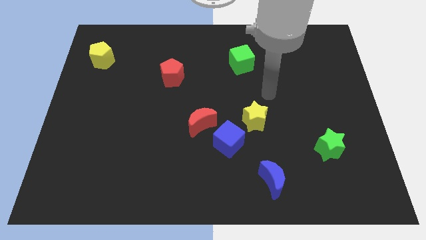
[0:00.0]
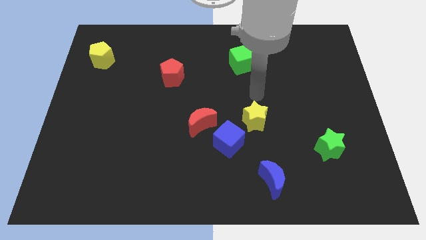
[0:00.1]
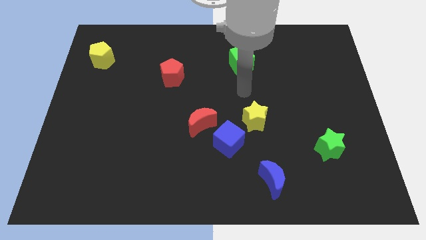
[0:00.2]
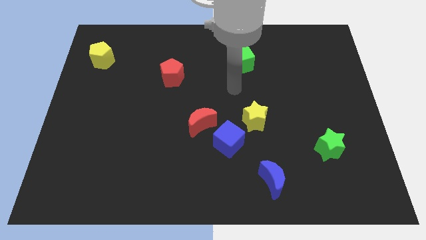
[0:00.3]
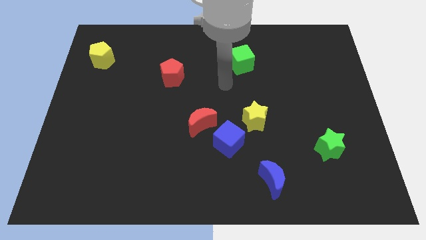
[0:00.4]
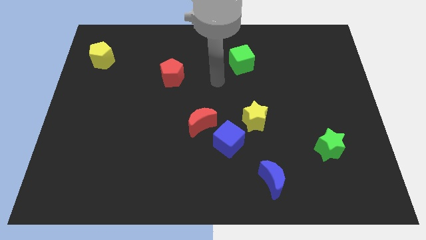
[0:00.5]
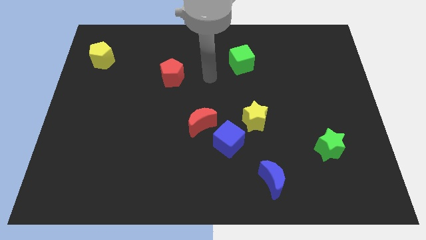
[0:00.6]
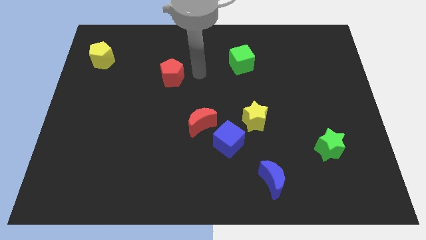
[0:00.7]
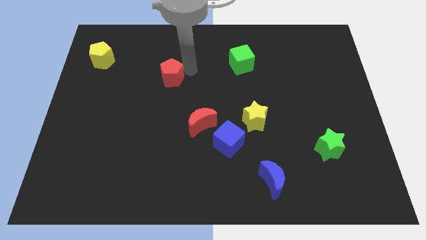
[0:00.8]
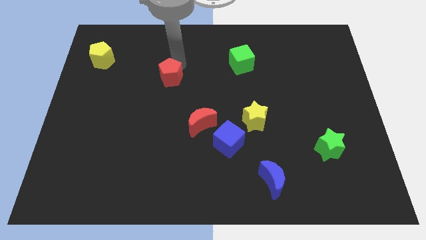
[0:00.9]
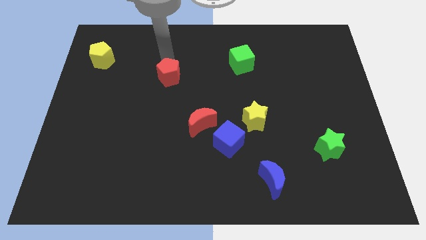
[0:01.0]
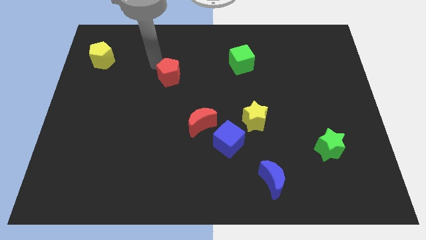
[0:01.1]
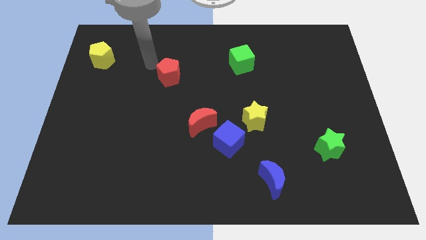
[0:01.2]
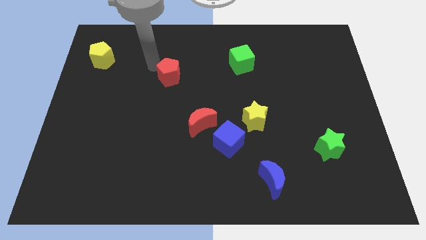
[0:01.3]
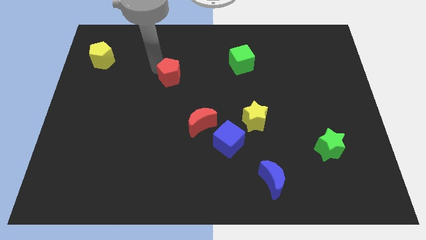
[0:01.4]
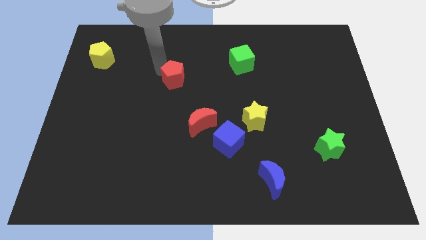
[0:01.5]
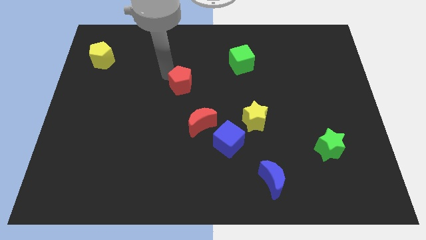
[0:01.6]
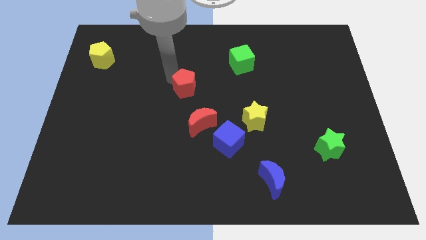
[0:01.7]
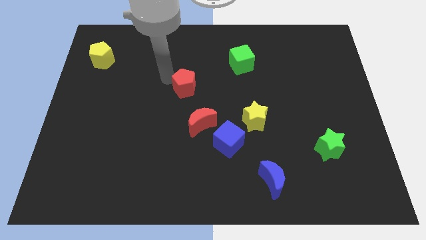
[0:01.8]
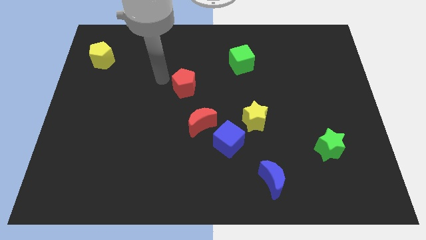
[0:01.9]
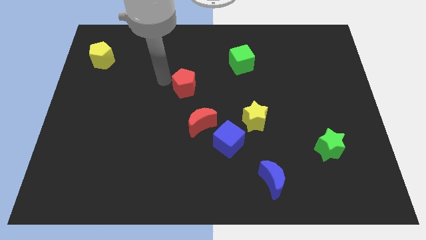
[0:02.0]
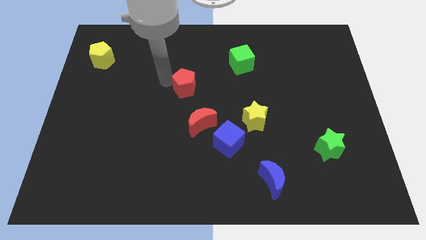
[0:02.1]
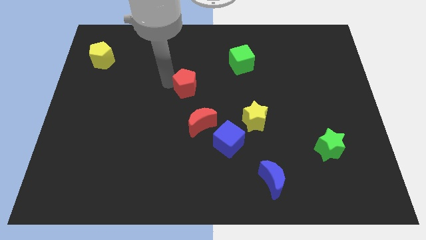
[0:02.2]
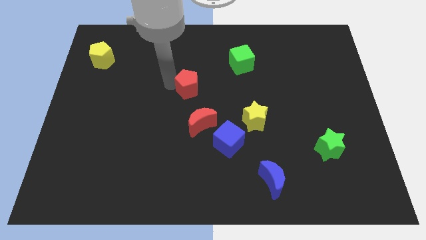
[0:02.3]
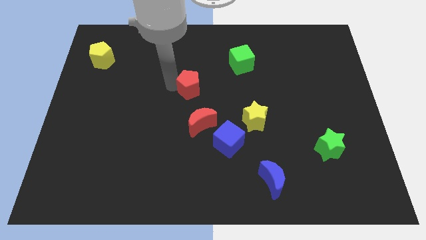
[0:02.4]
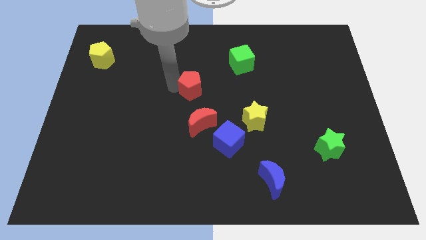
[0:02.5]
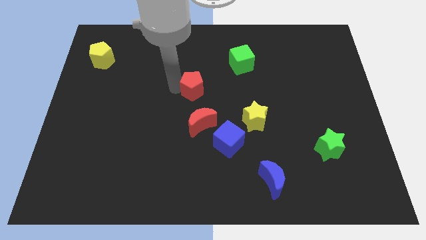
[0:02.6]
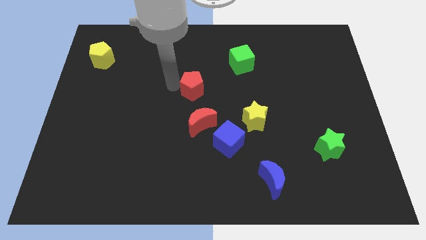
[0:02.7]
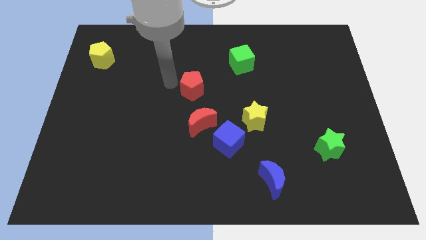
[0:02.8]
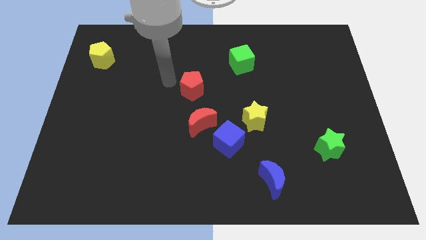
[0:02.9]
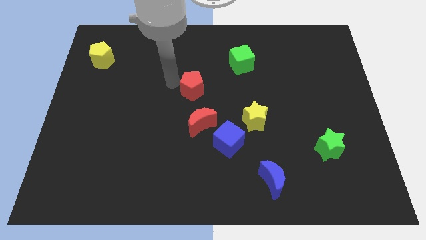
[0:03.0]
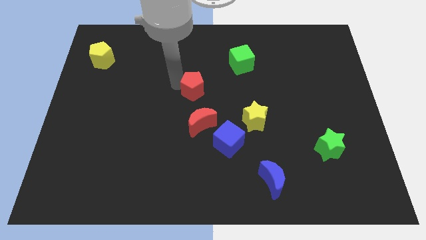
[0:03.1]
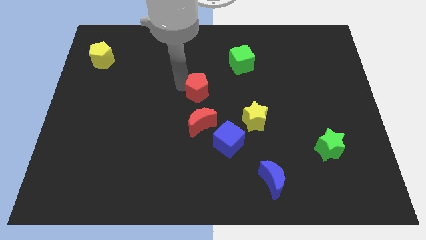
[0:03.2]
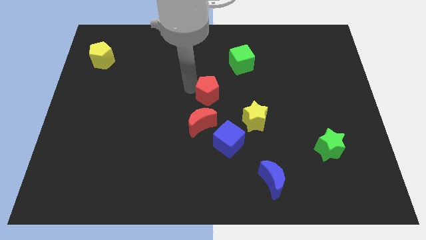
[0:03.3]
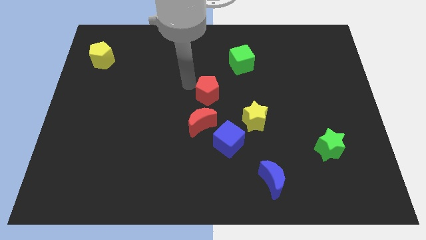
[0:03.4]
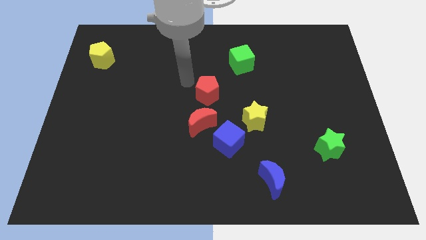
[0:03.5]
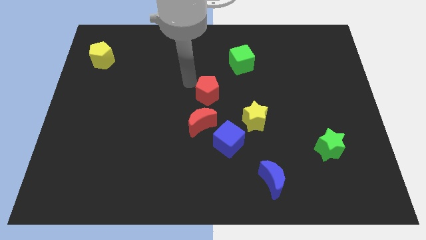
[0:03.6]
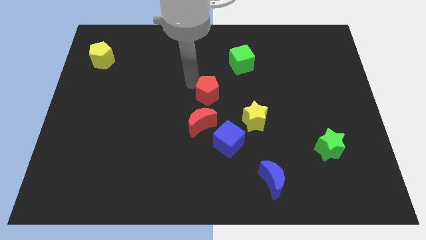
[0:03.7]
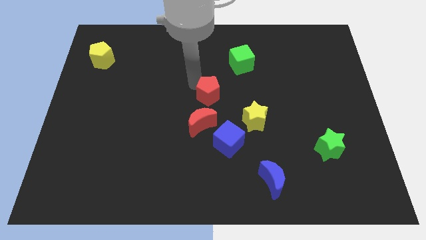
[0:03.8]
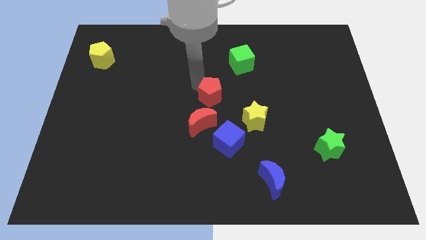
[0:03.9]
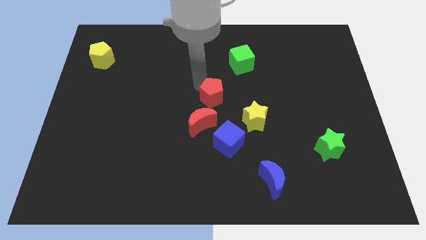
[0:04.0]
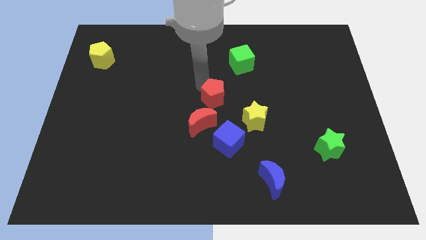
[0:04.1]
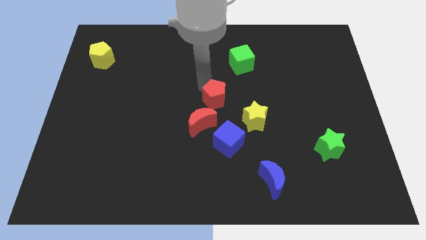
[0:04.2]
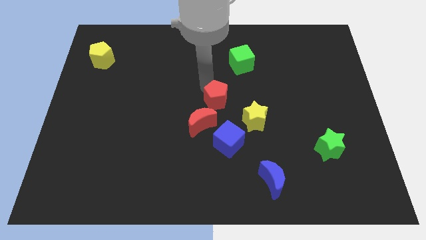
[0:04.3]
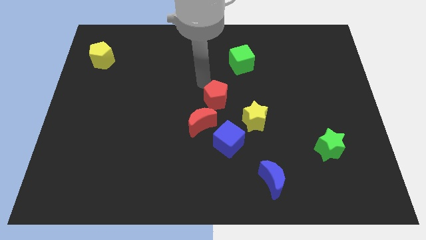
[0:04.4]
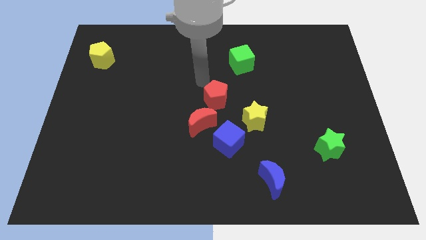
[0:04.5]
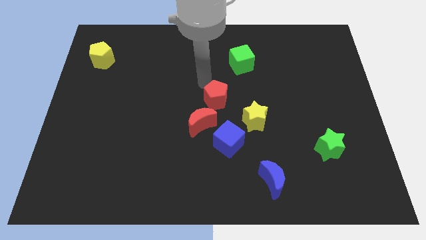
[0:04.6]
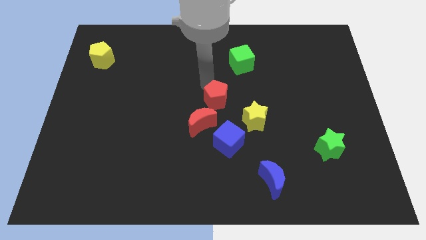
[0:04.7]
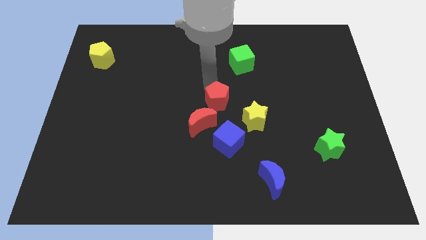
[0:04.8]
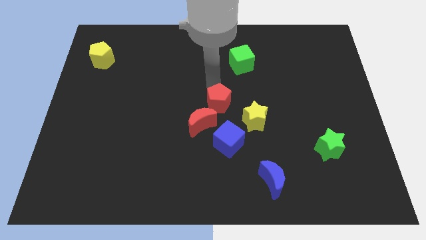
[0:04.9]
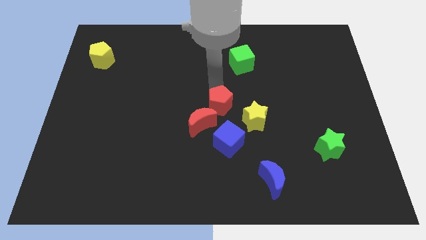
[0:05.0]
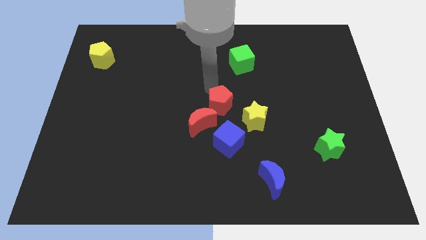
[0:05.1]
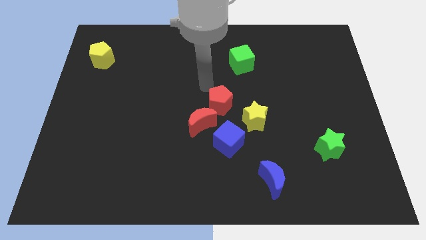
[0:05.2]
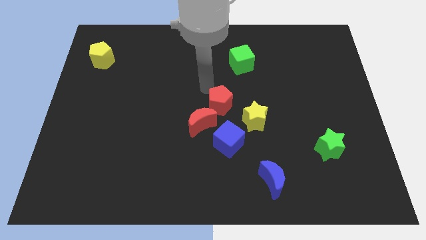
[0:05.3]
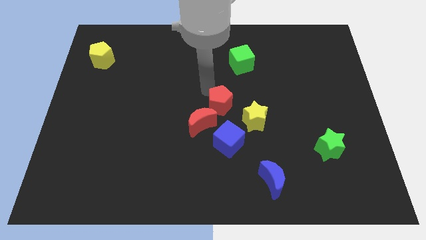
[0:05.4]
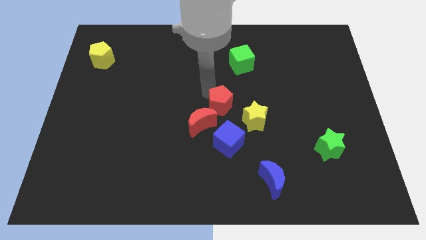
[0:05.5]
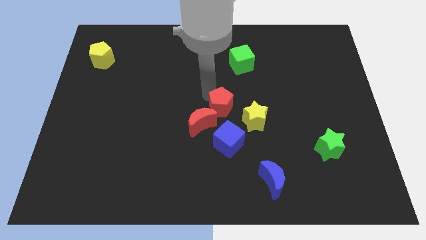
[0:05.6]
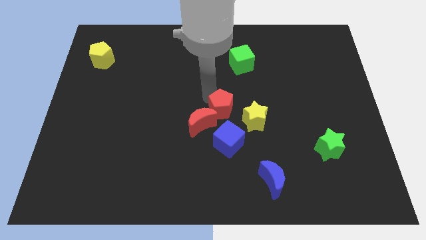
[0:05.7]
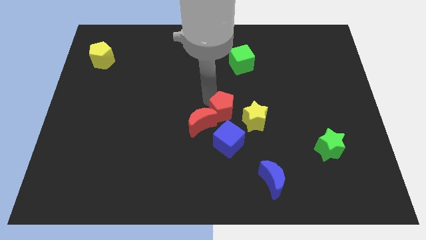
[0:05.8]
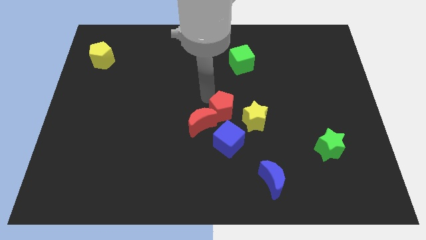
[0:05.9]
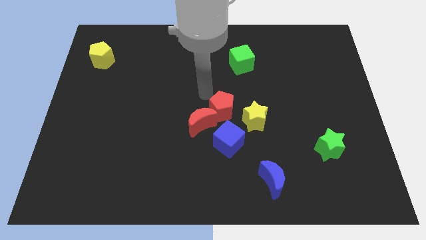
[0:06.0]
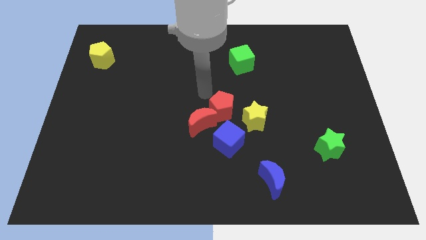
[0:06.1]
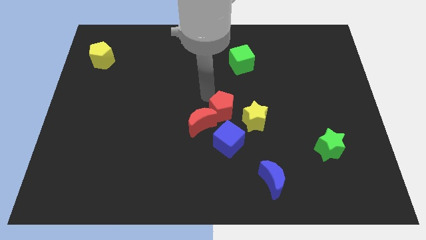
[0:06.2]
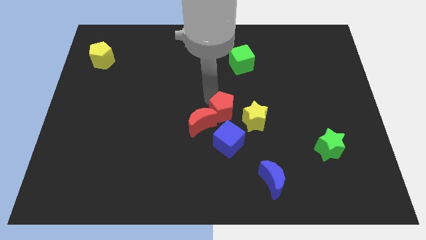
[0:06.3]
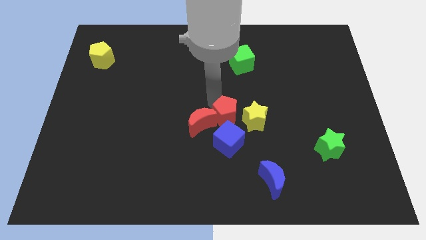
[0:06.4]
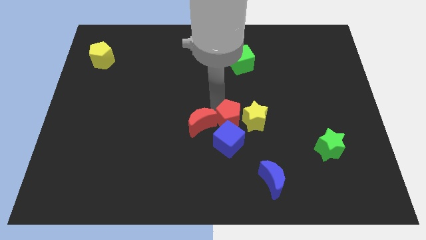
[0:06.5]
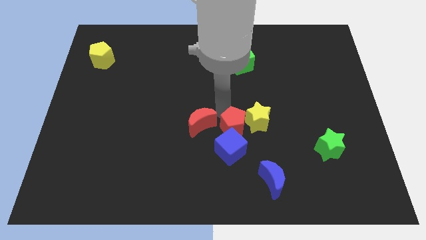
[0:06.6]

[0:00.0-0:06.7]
move the red pentagon downwards and to the right diagonally

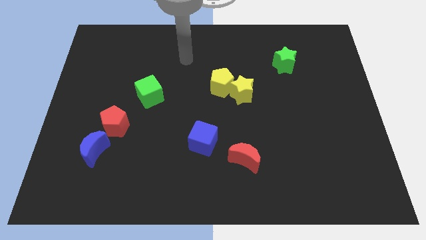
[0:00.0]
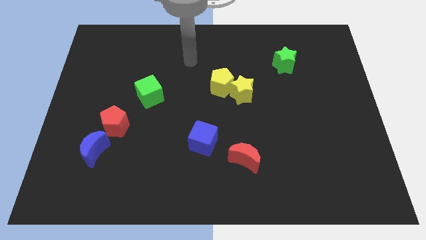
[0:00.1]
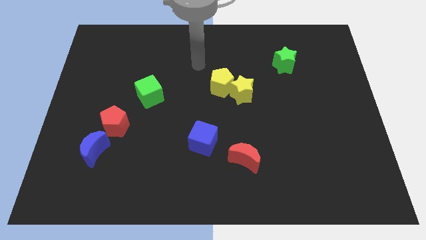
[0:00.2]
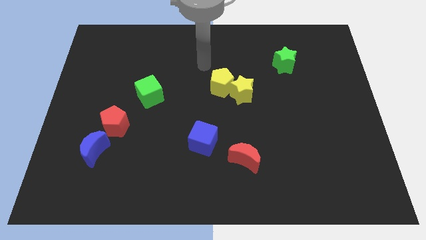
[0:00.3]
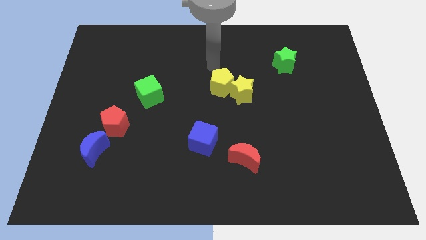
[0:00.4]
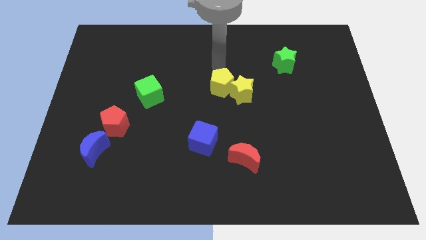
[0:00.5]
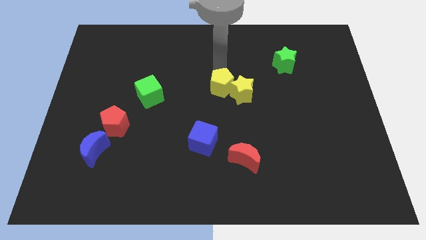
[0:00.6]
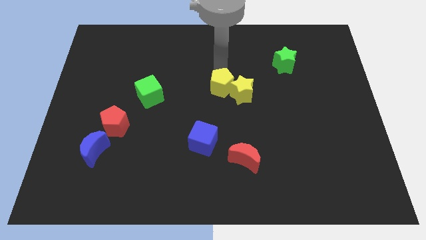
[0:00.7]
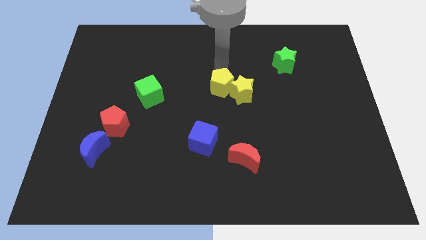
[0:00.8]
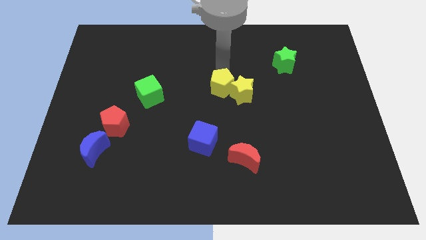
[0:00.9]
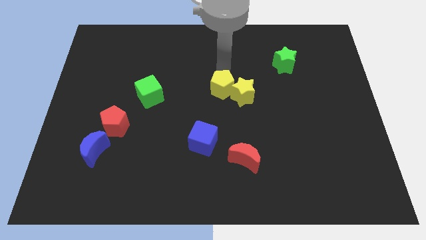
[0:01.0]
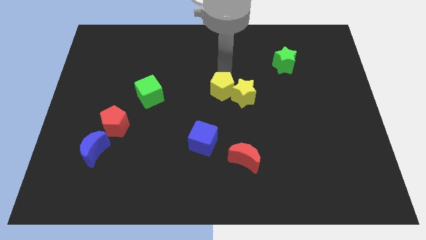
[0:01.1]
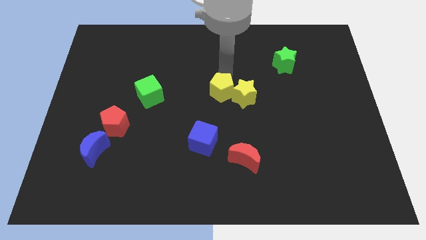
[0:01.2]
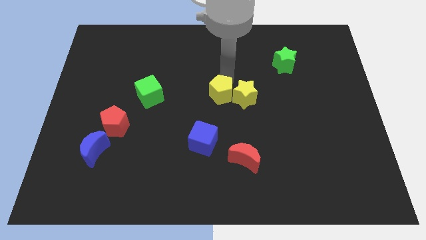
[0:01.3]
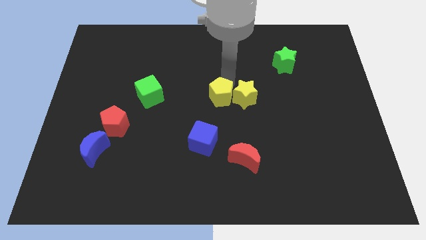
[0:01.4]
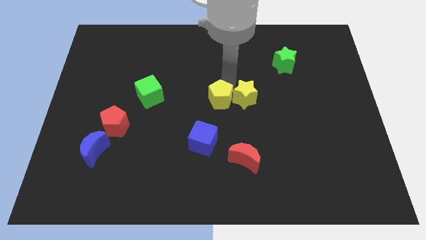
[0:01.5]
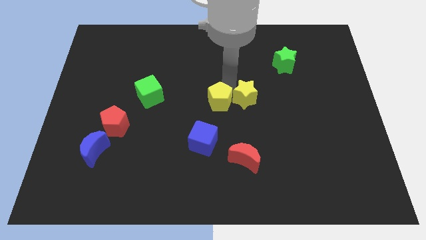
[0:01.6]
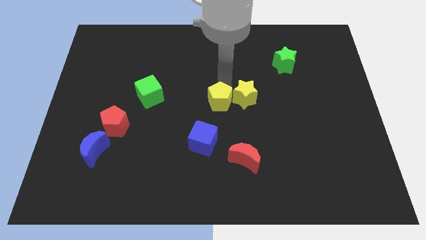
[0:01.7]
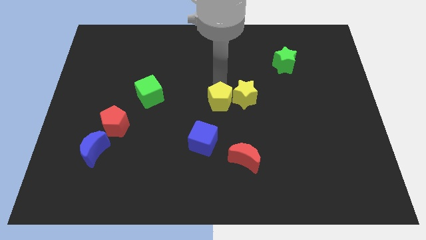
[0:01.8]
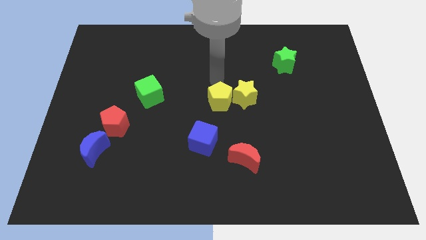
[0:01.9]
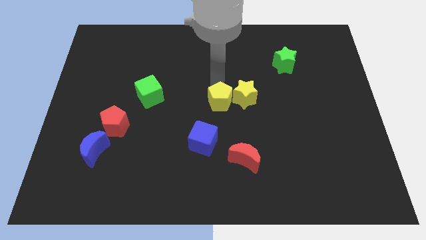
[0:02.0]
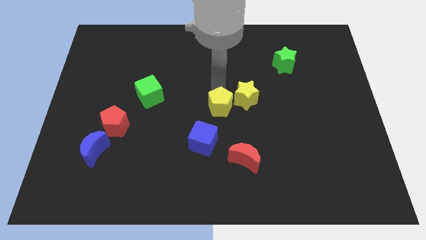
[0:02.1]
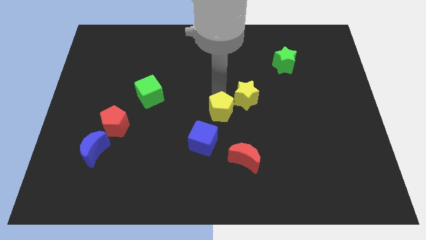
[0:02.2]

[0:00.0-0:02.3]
slightly slide the yellow pentagon downwards
